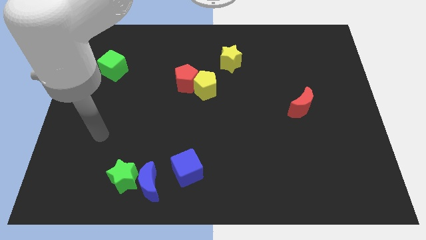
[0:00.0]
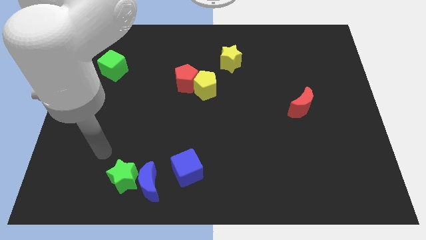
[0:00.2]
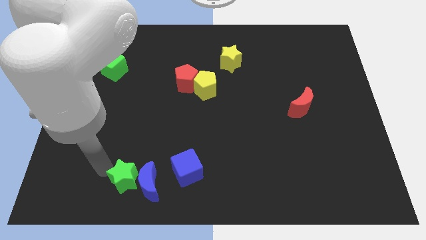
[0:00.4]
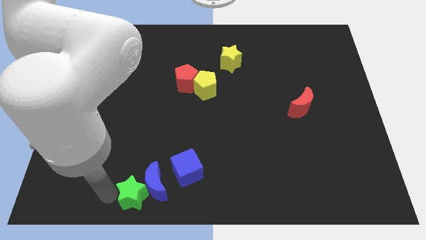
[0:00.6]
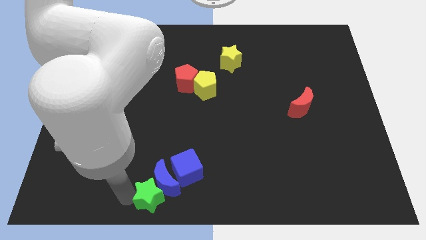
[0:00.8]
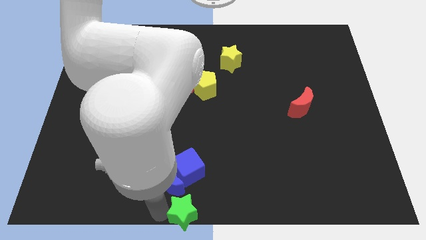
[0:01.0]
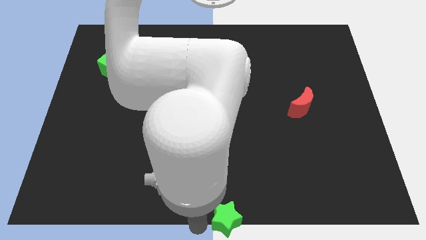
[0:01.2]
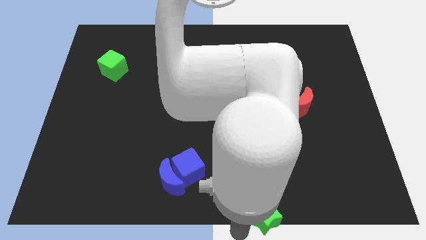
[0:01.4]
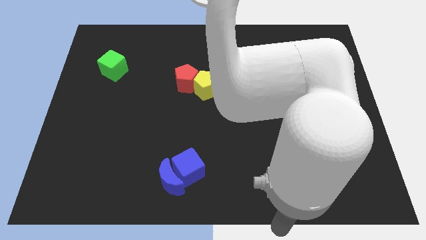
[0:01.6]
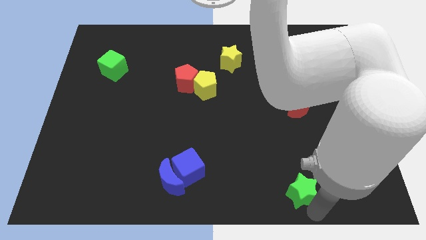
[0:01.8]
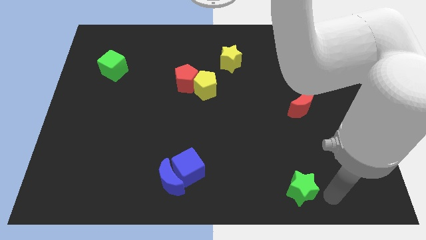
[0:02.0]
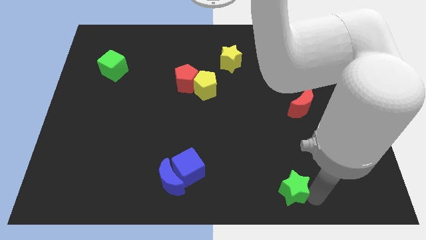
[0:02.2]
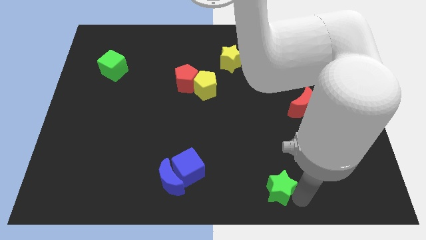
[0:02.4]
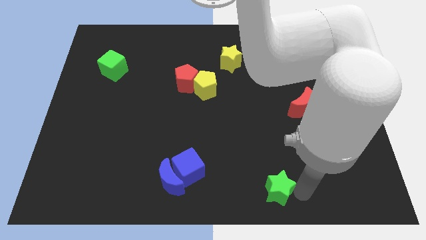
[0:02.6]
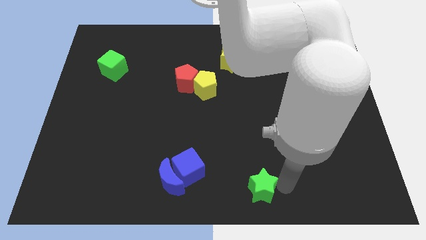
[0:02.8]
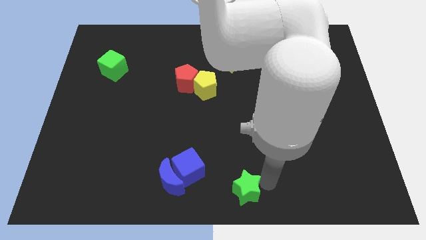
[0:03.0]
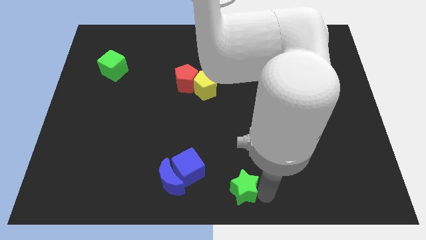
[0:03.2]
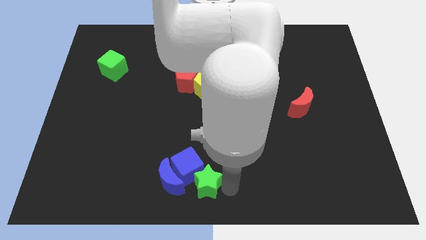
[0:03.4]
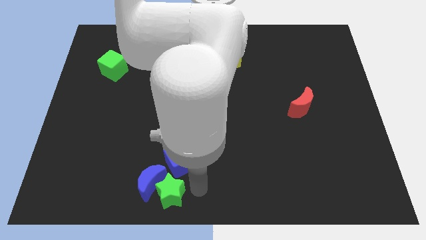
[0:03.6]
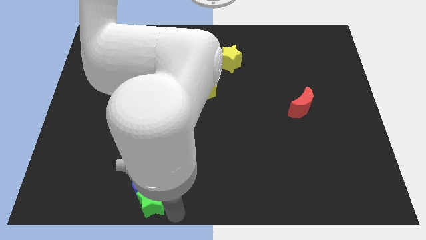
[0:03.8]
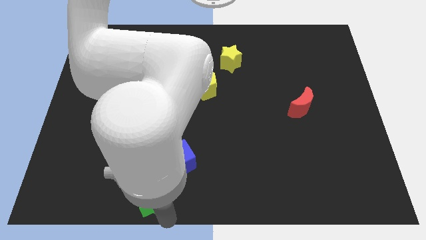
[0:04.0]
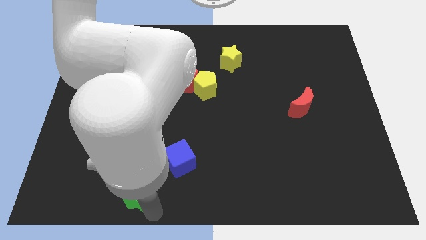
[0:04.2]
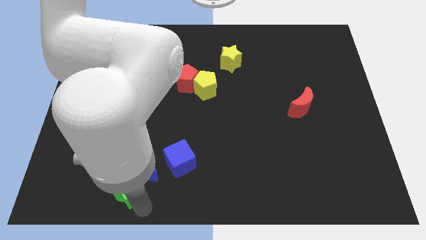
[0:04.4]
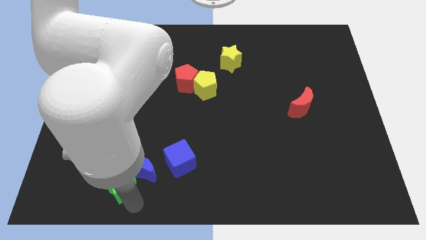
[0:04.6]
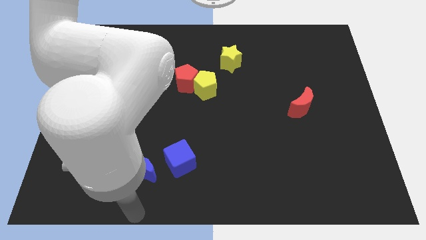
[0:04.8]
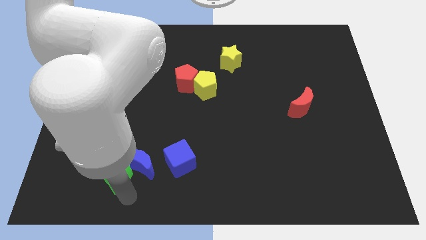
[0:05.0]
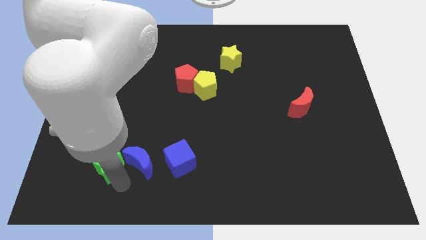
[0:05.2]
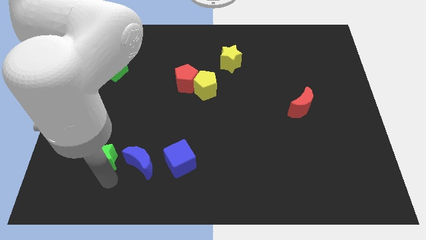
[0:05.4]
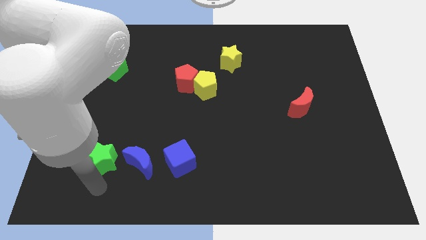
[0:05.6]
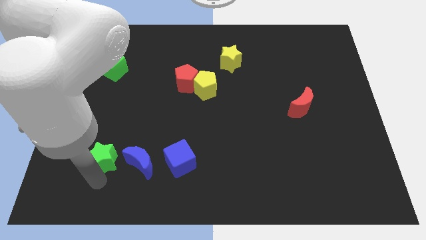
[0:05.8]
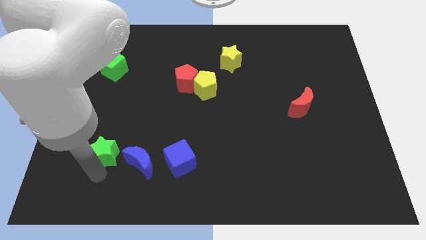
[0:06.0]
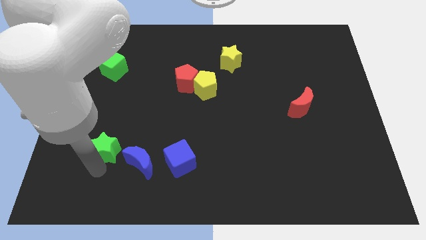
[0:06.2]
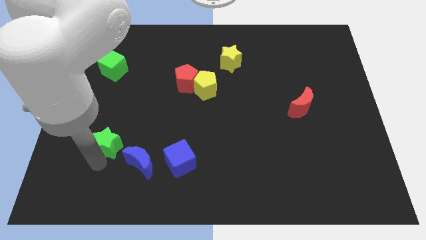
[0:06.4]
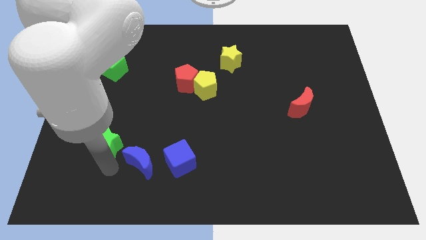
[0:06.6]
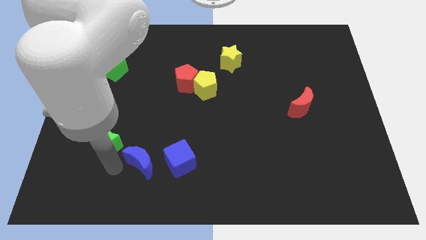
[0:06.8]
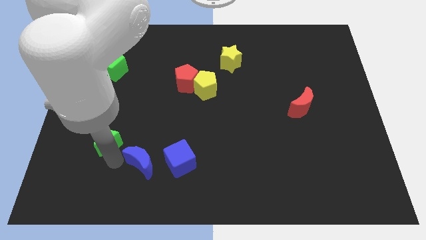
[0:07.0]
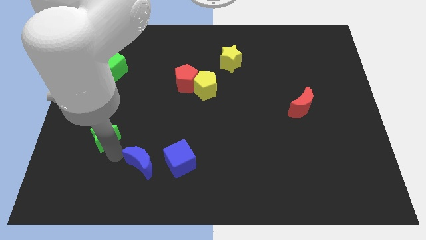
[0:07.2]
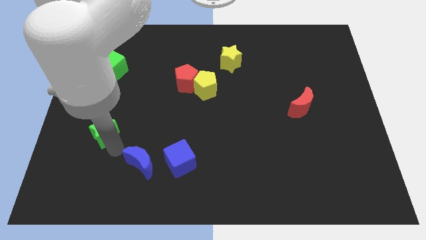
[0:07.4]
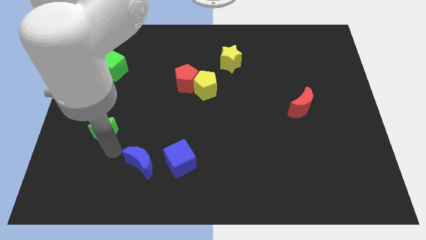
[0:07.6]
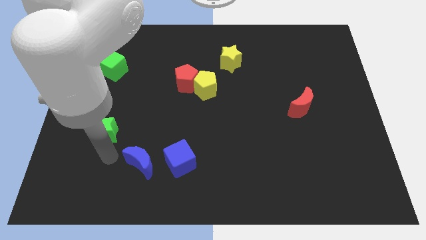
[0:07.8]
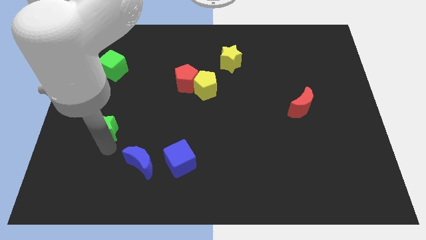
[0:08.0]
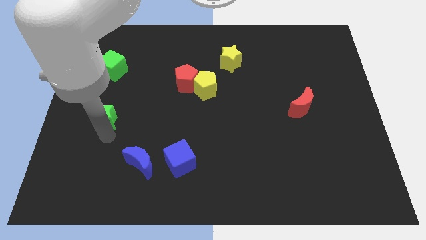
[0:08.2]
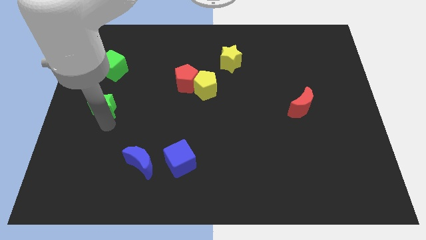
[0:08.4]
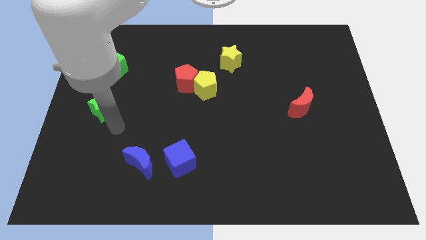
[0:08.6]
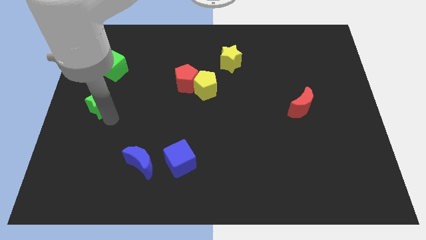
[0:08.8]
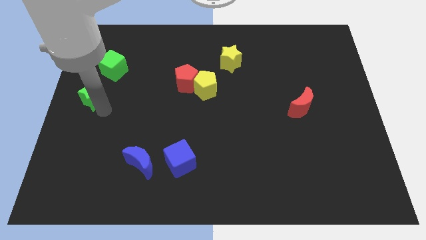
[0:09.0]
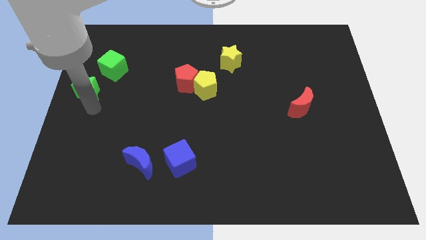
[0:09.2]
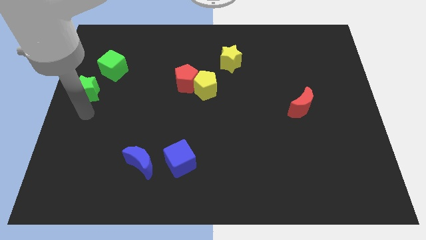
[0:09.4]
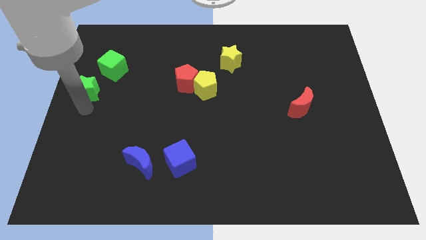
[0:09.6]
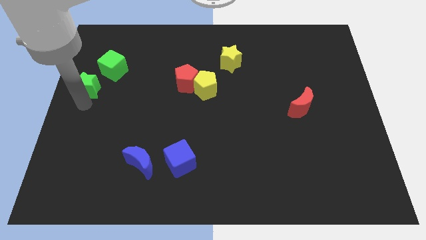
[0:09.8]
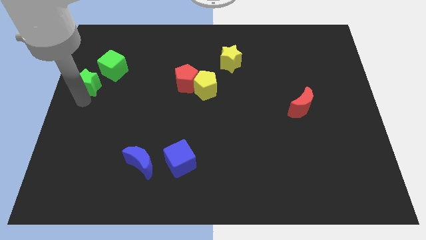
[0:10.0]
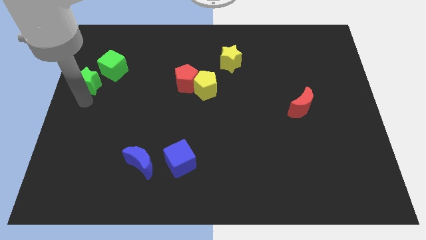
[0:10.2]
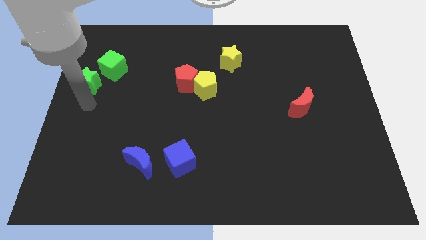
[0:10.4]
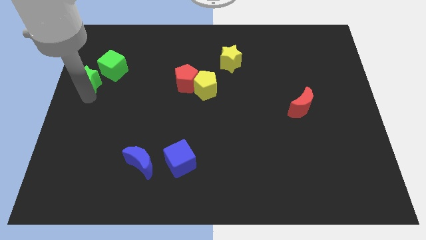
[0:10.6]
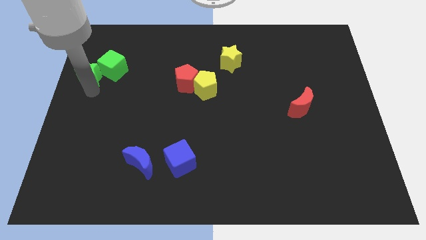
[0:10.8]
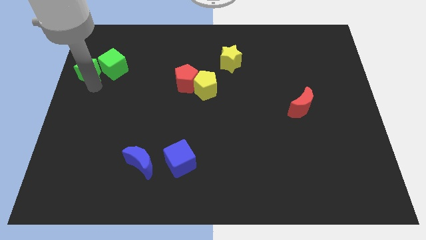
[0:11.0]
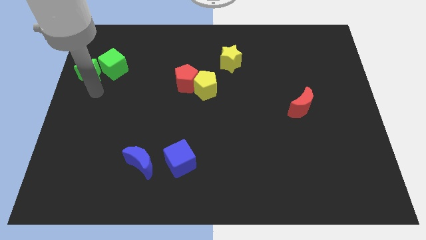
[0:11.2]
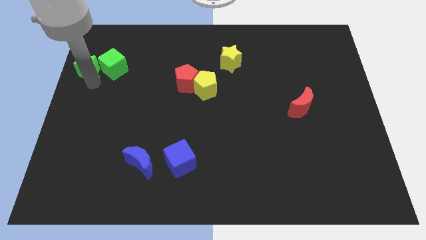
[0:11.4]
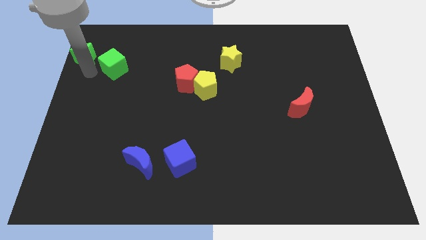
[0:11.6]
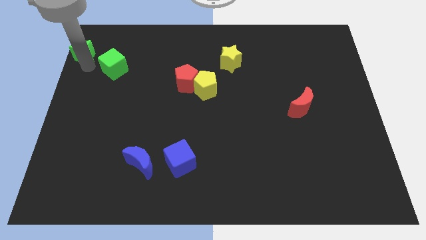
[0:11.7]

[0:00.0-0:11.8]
push the green star to the top left
